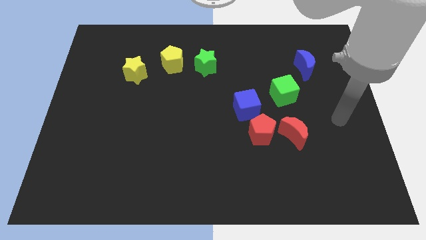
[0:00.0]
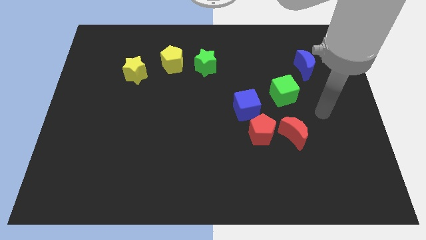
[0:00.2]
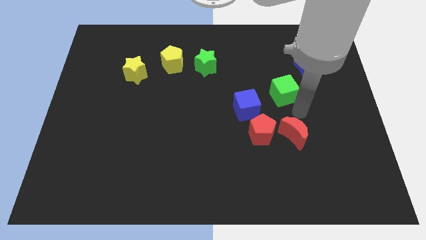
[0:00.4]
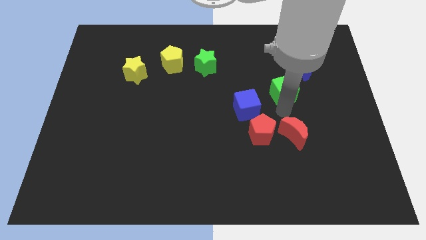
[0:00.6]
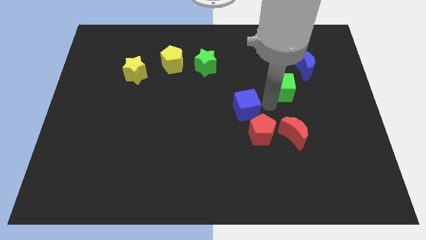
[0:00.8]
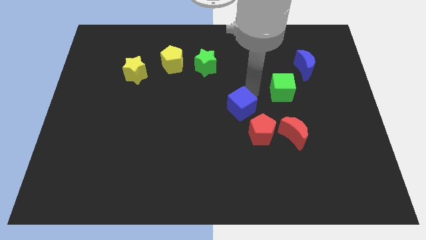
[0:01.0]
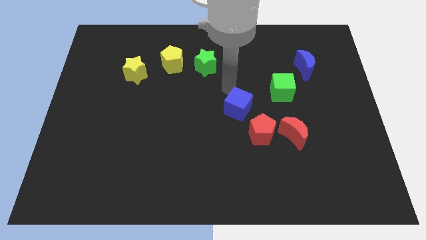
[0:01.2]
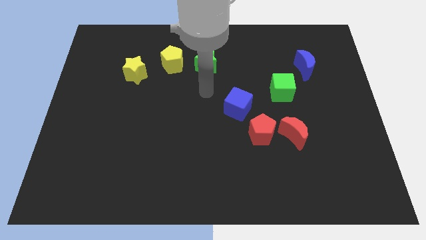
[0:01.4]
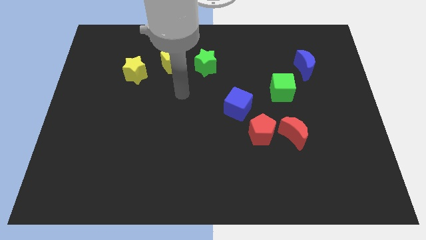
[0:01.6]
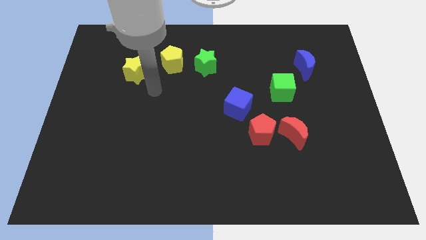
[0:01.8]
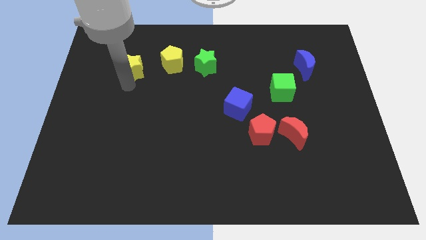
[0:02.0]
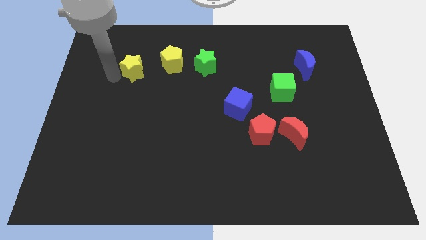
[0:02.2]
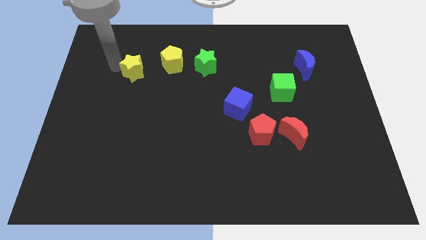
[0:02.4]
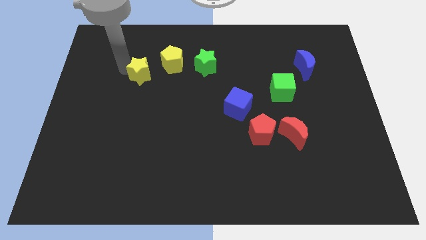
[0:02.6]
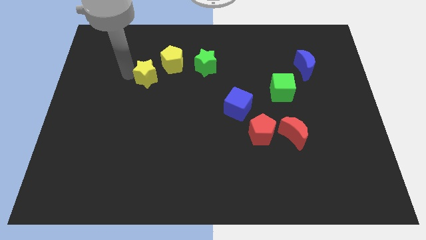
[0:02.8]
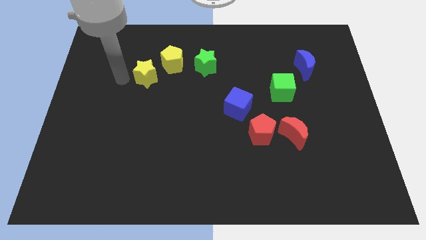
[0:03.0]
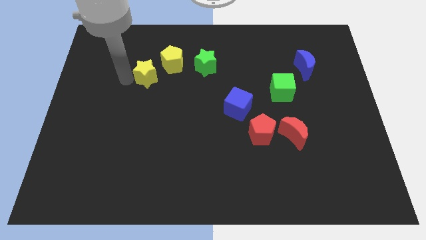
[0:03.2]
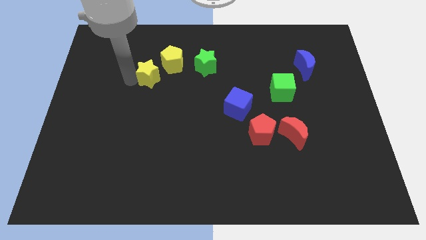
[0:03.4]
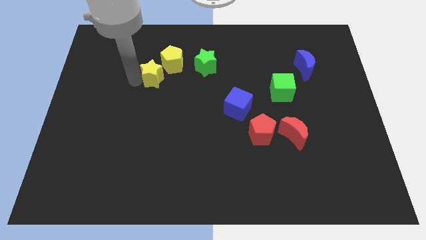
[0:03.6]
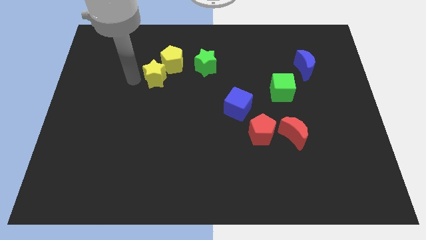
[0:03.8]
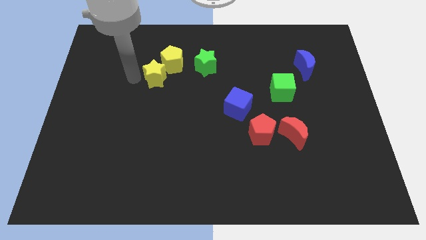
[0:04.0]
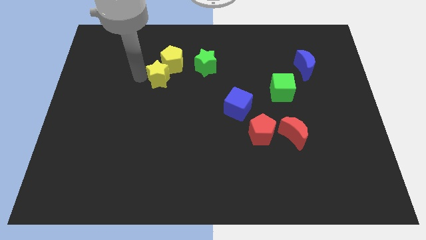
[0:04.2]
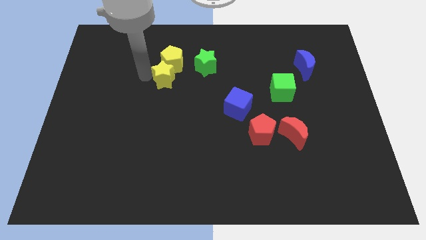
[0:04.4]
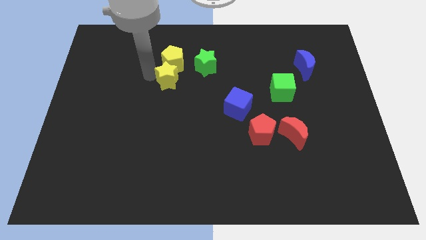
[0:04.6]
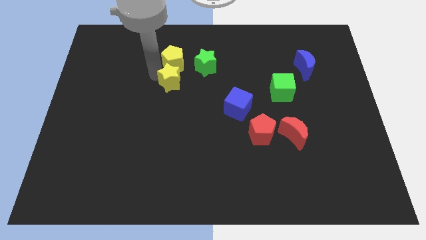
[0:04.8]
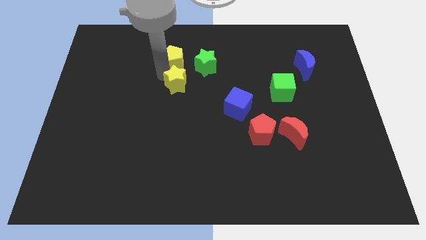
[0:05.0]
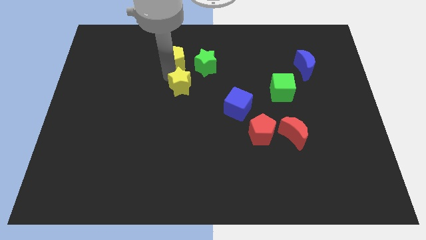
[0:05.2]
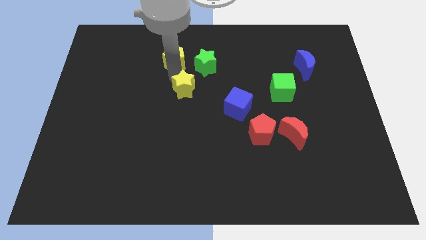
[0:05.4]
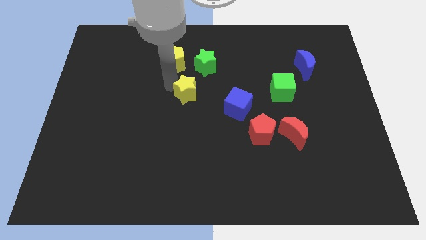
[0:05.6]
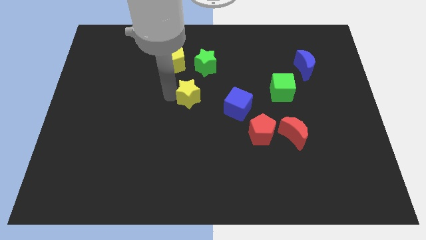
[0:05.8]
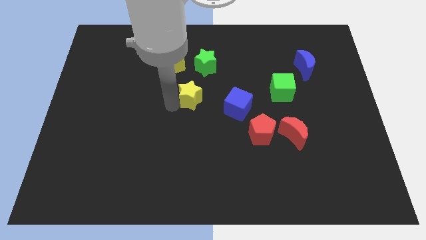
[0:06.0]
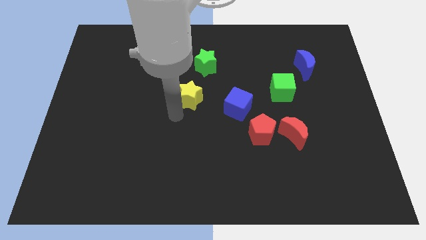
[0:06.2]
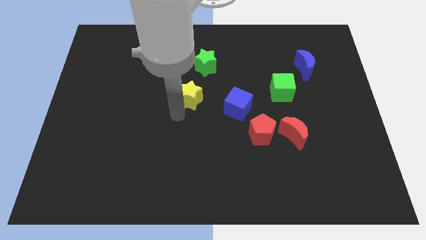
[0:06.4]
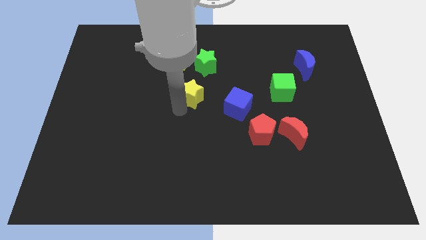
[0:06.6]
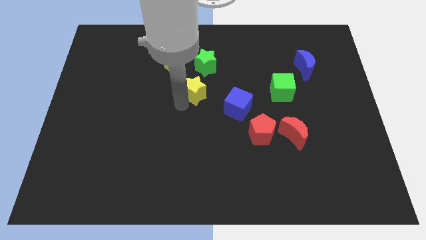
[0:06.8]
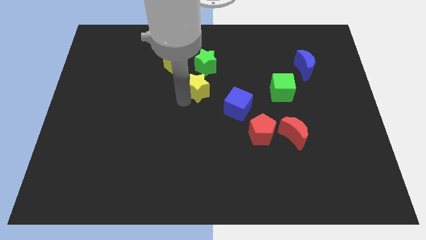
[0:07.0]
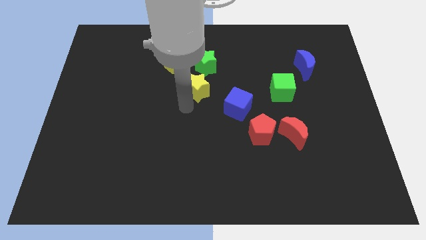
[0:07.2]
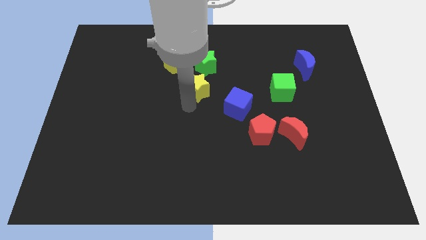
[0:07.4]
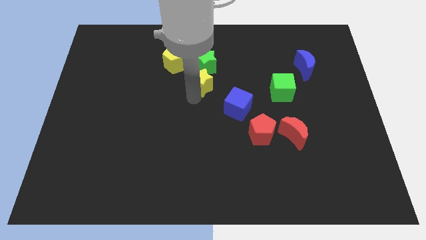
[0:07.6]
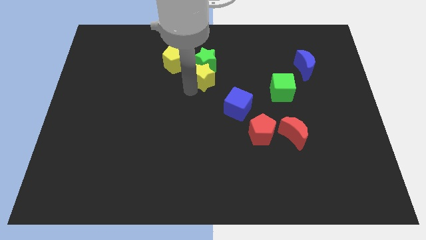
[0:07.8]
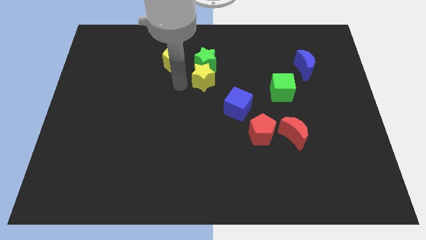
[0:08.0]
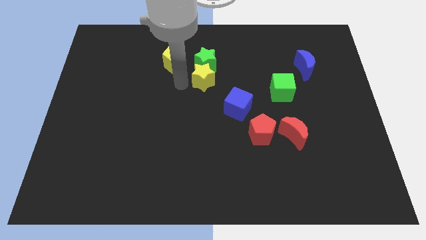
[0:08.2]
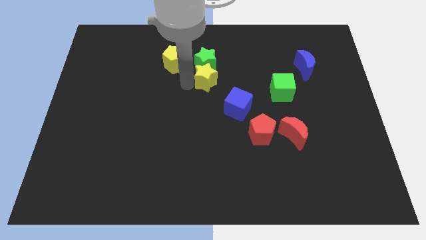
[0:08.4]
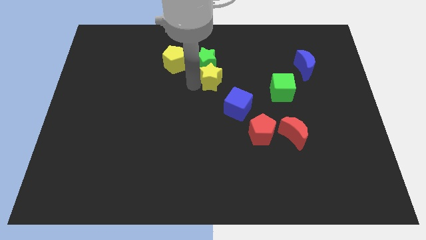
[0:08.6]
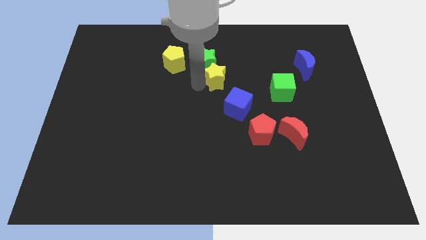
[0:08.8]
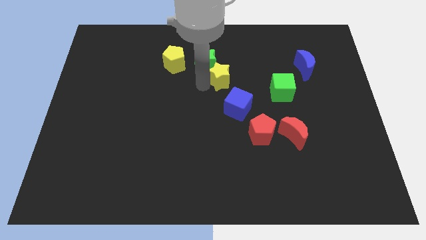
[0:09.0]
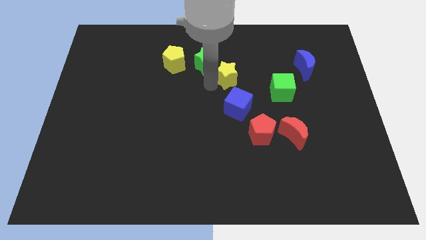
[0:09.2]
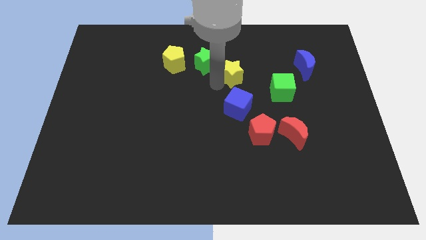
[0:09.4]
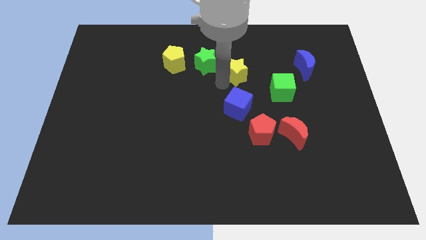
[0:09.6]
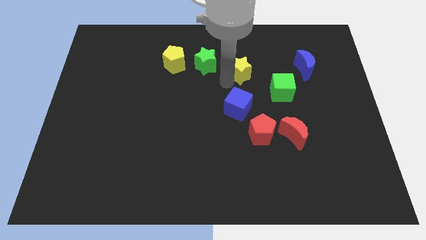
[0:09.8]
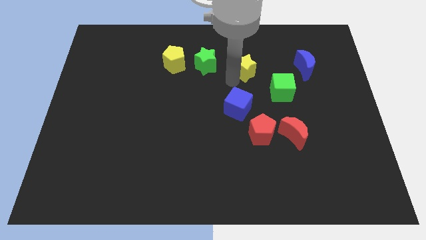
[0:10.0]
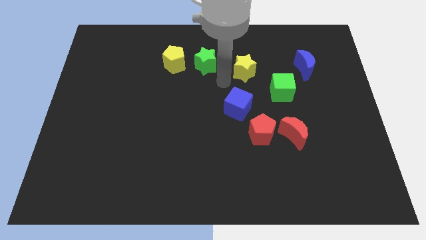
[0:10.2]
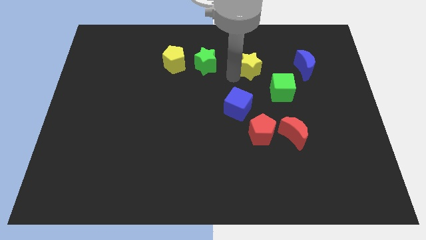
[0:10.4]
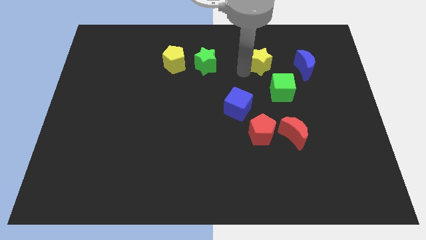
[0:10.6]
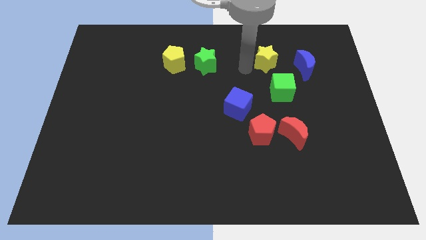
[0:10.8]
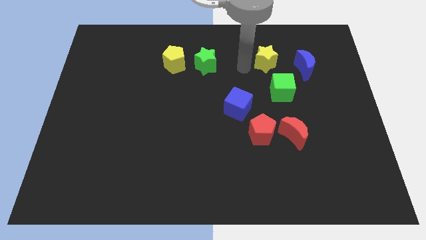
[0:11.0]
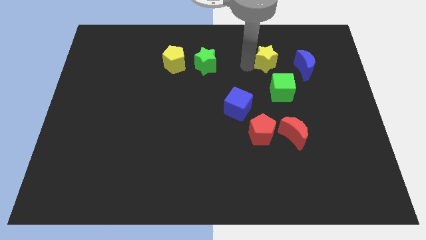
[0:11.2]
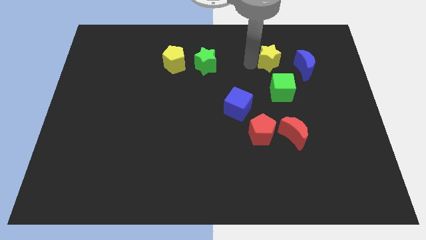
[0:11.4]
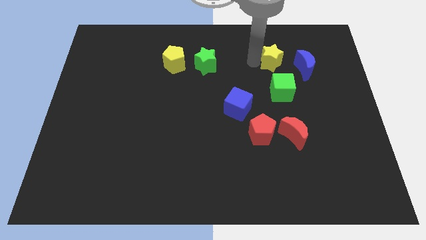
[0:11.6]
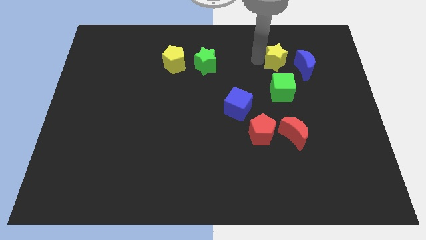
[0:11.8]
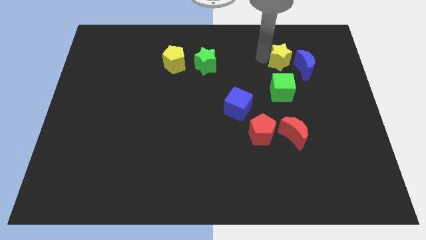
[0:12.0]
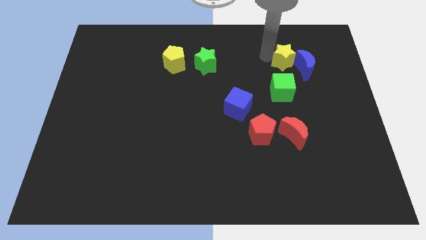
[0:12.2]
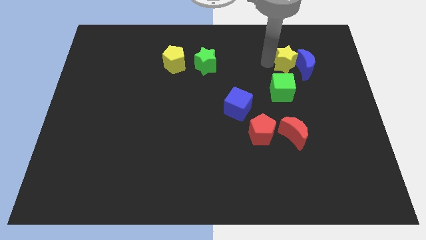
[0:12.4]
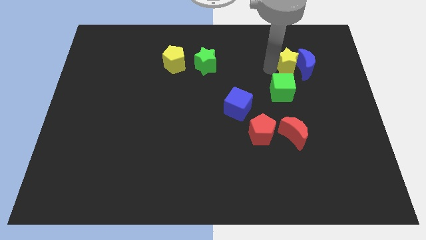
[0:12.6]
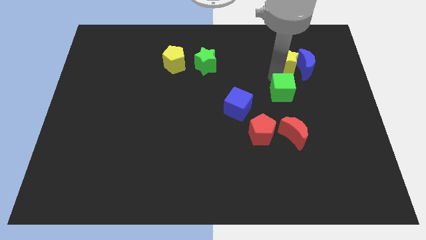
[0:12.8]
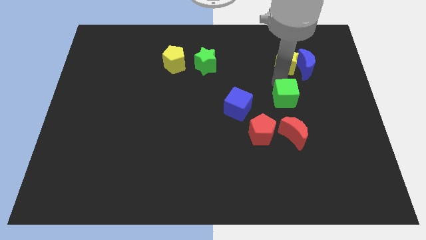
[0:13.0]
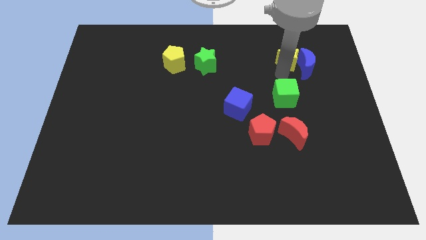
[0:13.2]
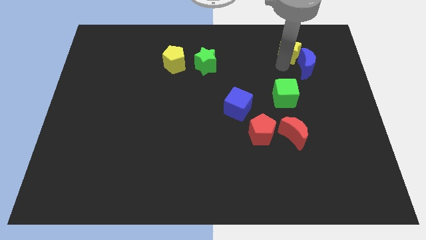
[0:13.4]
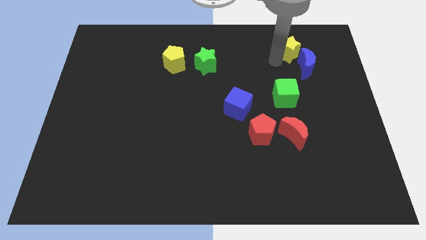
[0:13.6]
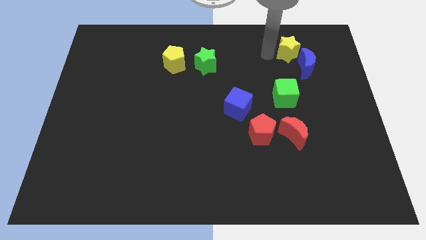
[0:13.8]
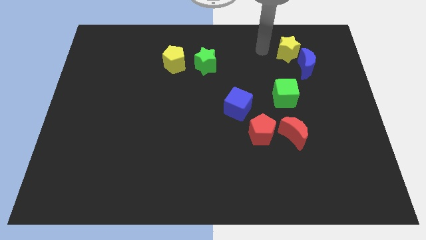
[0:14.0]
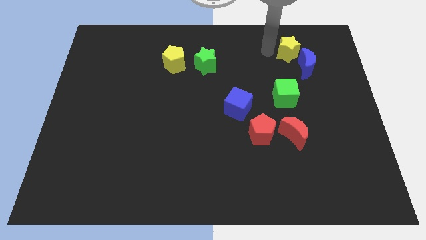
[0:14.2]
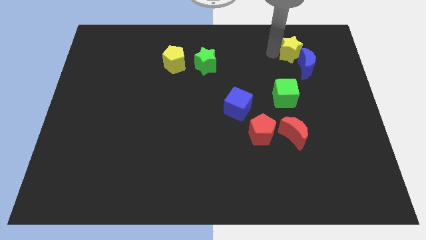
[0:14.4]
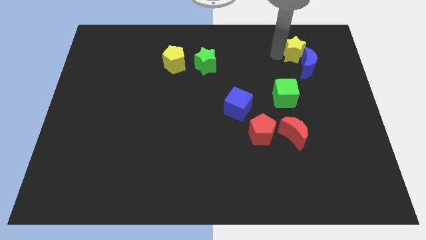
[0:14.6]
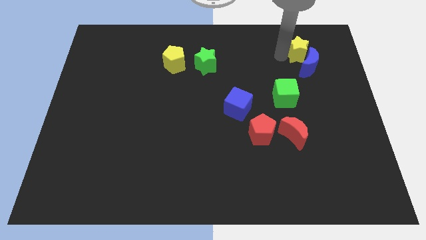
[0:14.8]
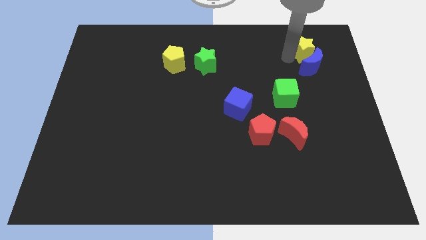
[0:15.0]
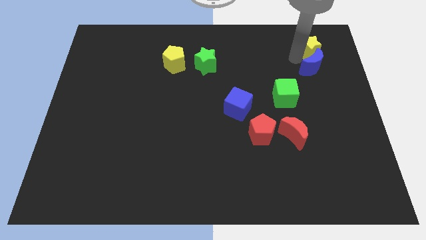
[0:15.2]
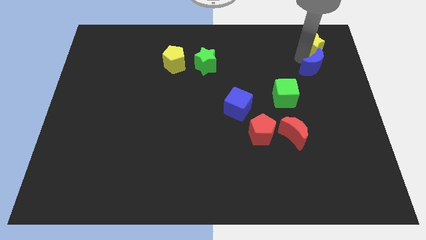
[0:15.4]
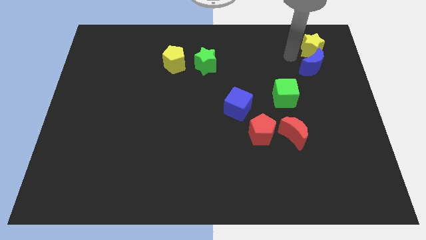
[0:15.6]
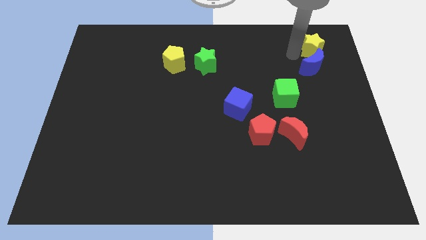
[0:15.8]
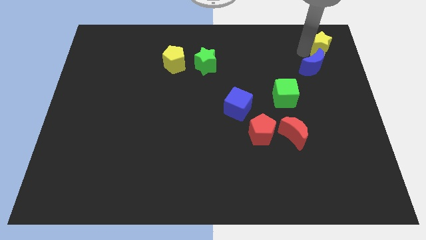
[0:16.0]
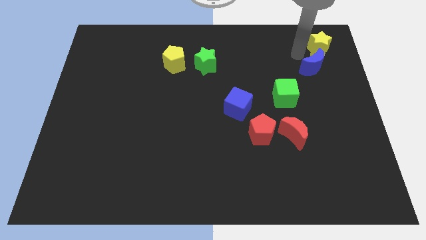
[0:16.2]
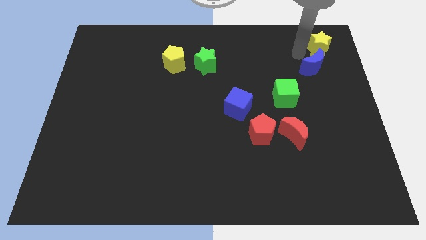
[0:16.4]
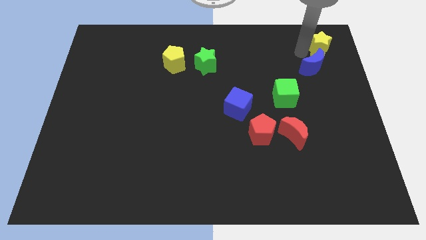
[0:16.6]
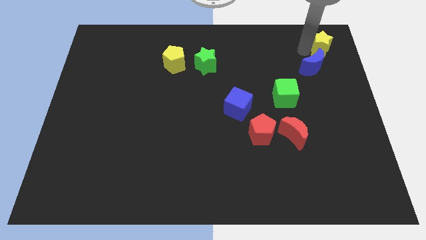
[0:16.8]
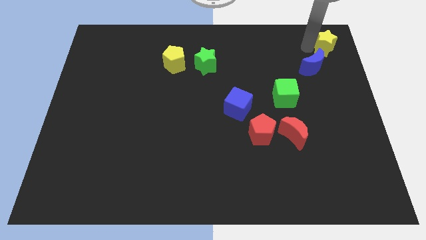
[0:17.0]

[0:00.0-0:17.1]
move the yellow star to the top right corner
